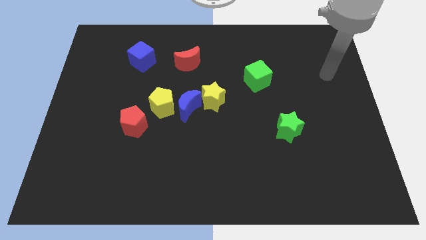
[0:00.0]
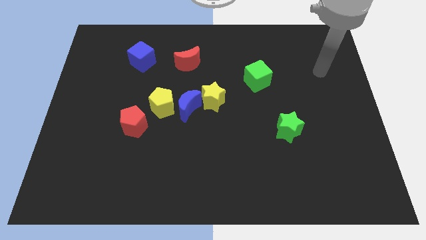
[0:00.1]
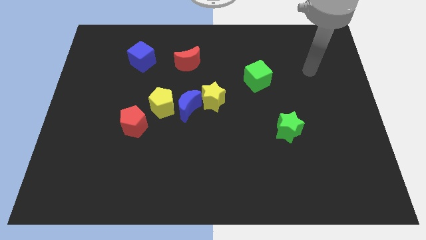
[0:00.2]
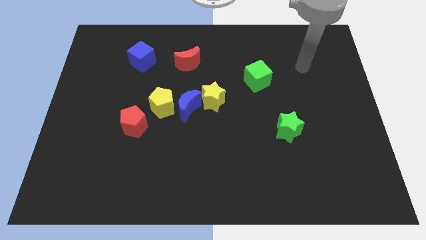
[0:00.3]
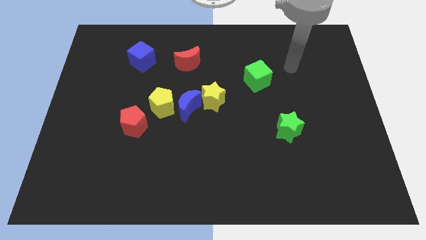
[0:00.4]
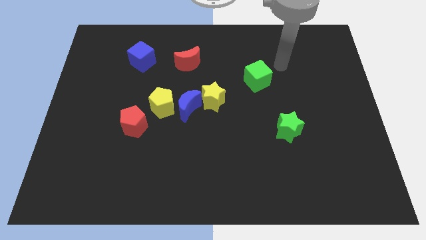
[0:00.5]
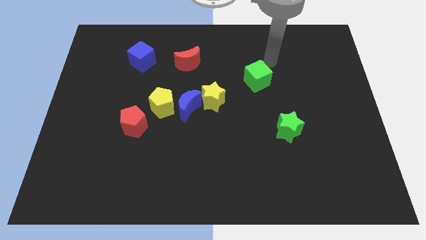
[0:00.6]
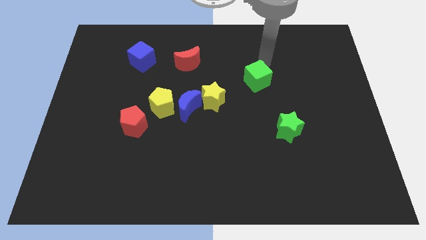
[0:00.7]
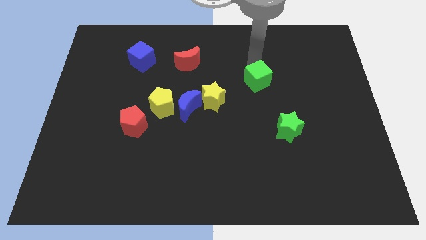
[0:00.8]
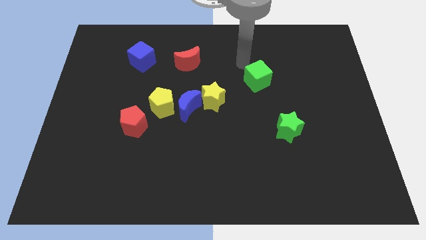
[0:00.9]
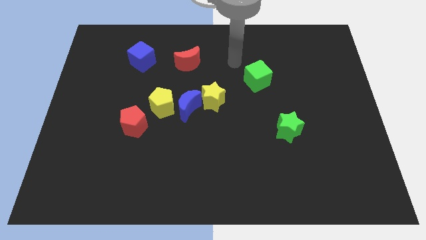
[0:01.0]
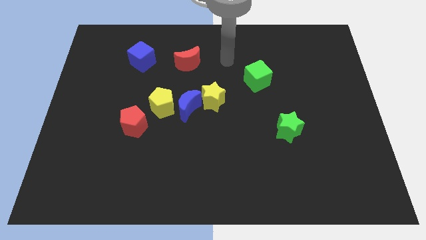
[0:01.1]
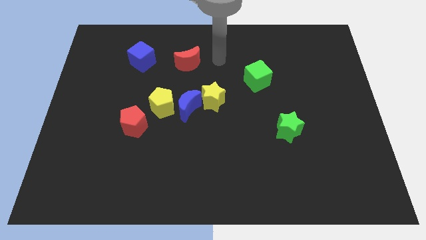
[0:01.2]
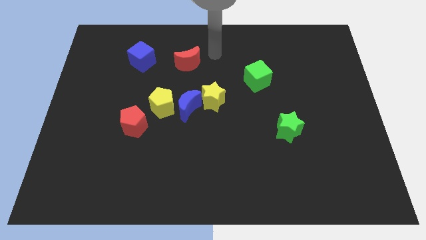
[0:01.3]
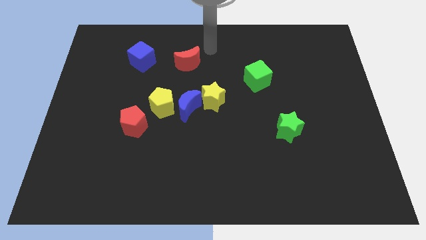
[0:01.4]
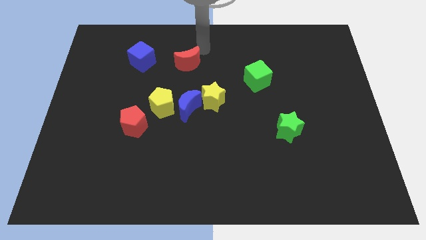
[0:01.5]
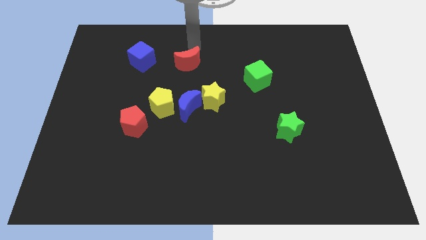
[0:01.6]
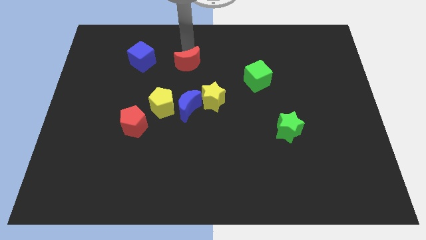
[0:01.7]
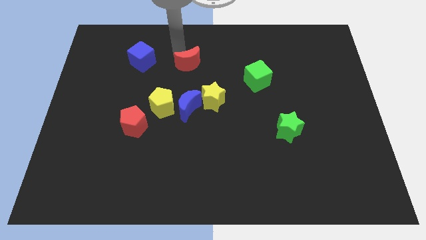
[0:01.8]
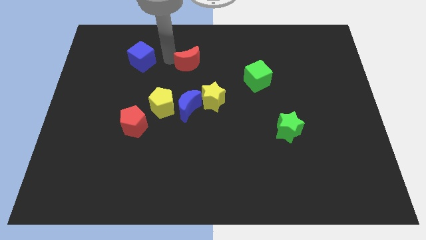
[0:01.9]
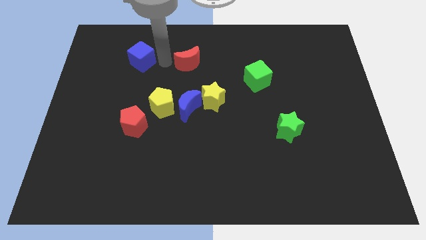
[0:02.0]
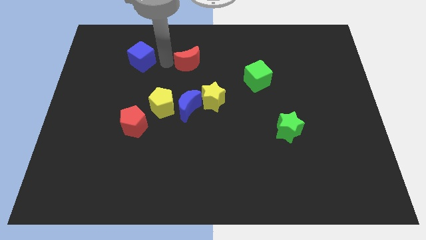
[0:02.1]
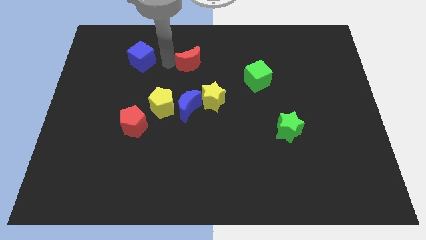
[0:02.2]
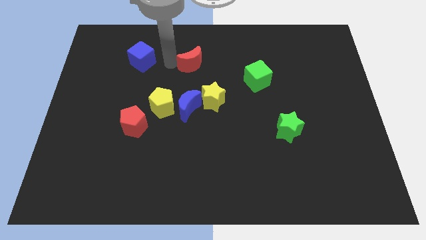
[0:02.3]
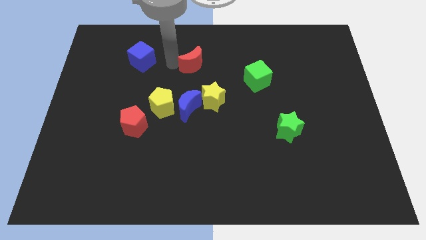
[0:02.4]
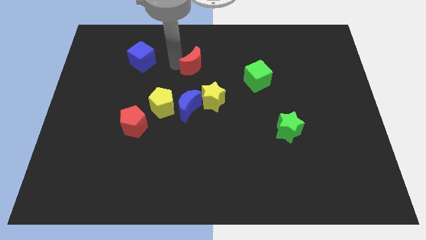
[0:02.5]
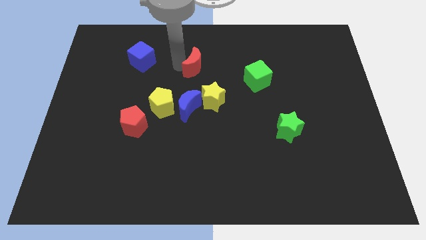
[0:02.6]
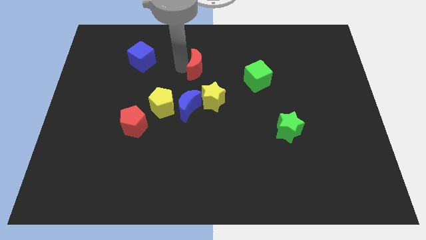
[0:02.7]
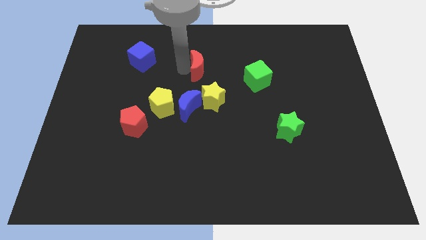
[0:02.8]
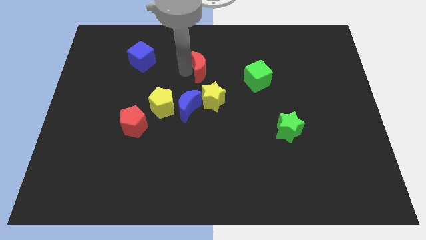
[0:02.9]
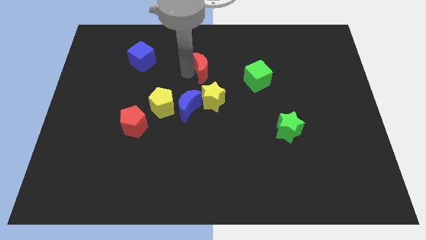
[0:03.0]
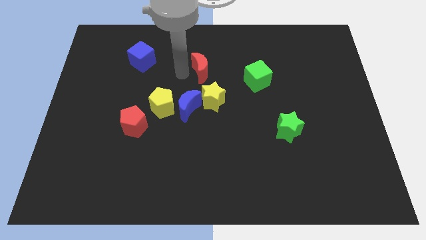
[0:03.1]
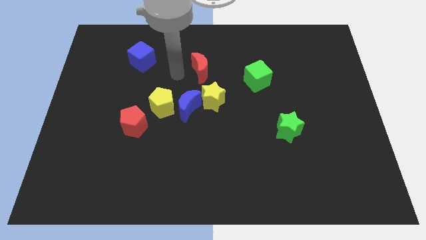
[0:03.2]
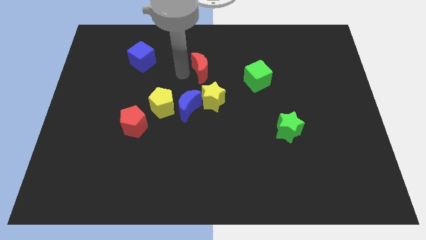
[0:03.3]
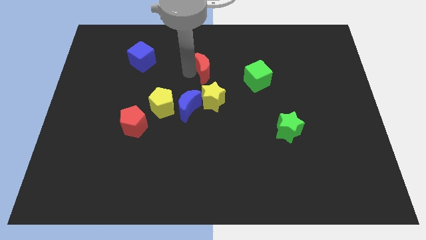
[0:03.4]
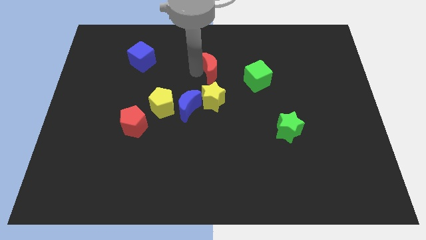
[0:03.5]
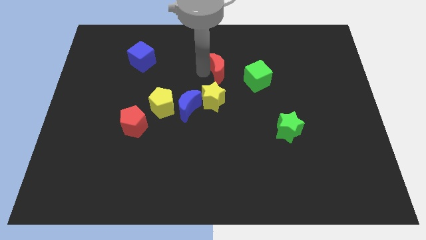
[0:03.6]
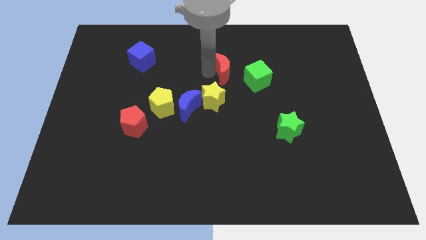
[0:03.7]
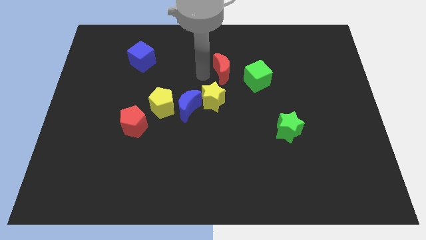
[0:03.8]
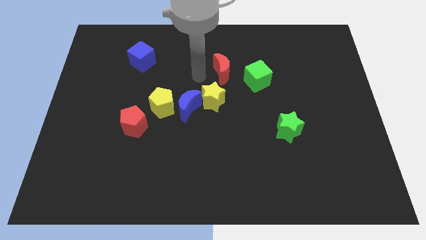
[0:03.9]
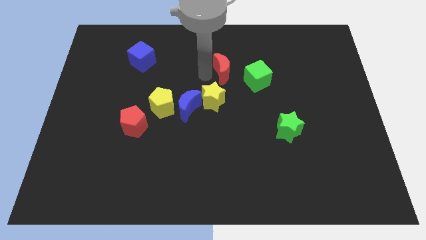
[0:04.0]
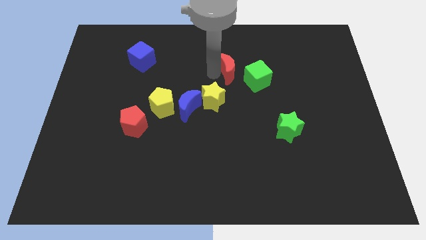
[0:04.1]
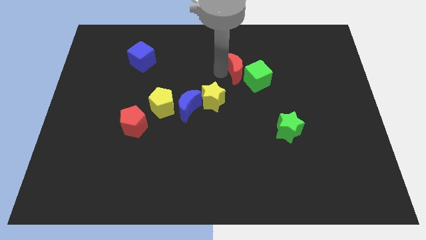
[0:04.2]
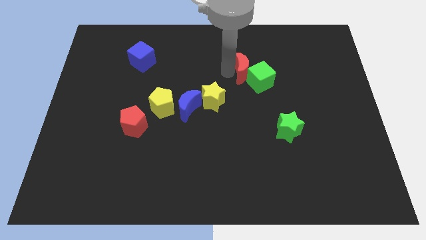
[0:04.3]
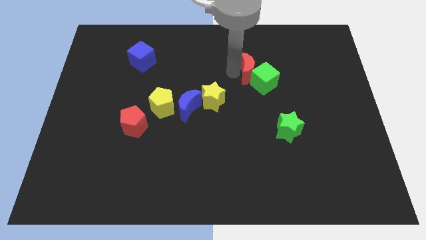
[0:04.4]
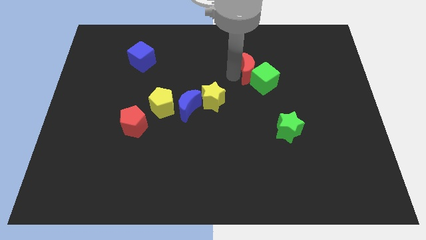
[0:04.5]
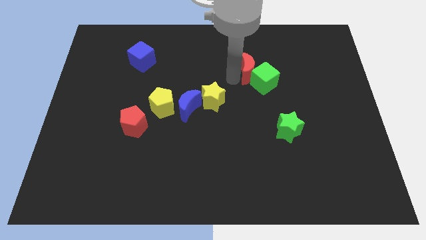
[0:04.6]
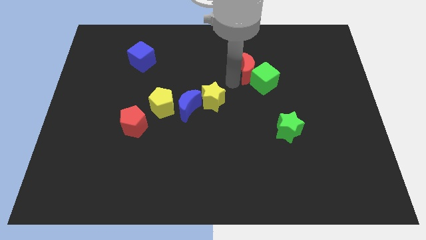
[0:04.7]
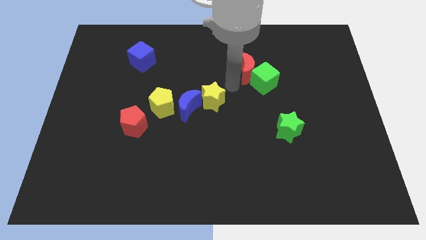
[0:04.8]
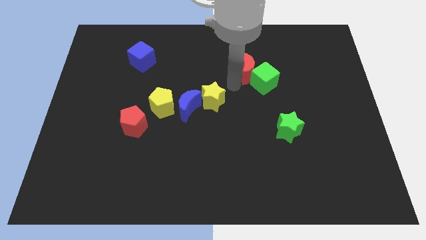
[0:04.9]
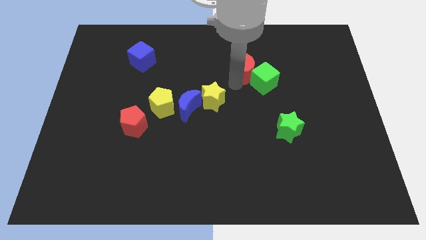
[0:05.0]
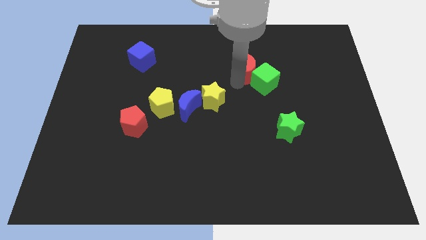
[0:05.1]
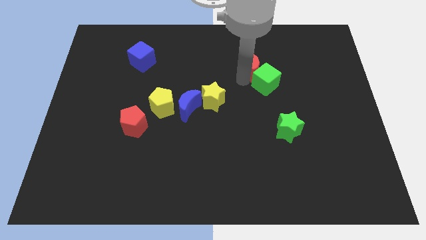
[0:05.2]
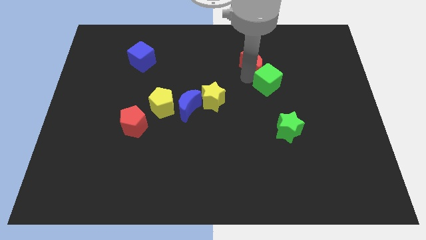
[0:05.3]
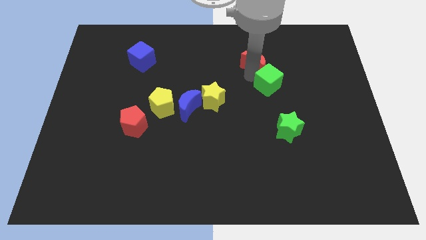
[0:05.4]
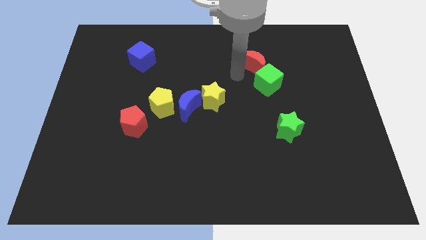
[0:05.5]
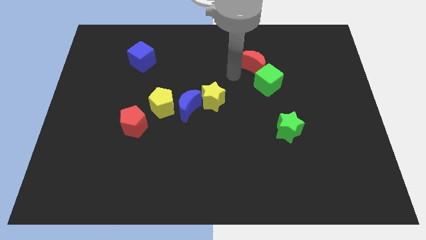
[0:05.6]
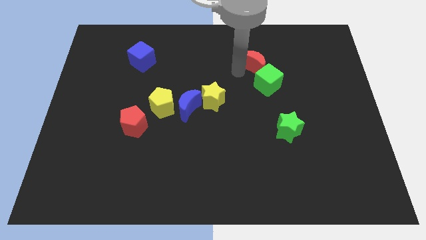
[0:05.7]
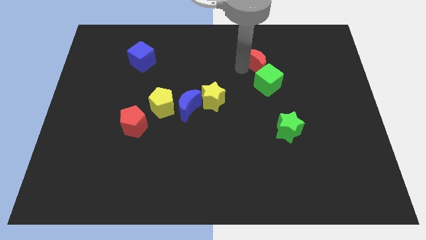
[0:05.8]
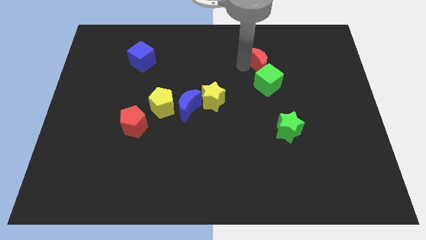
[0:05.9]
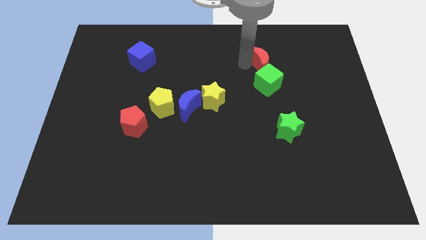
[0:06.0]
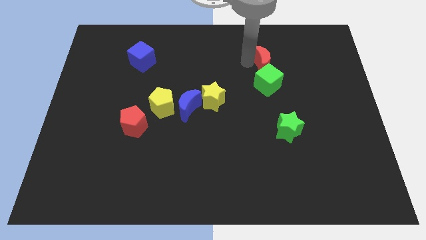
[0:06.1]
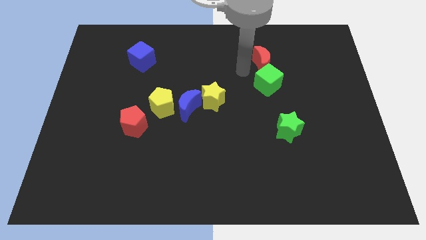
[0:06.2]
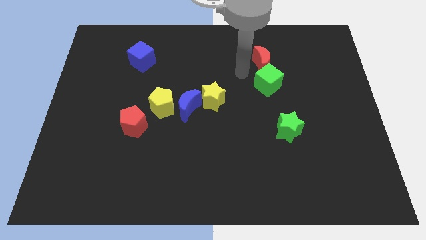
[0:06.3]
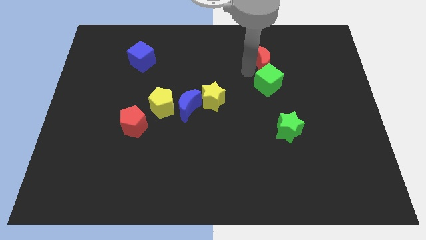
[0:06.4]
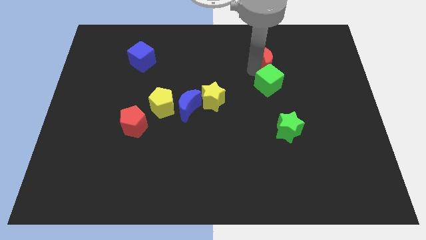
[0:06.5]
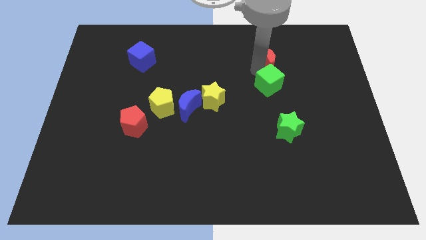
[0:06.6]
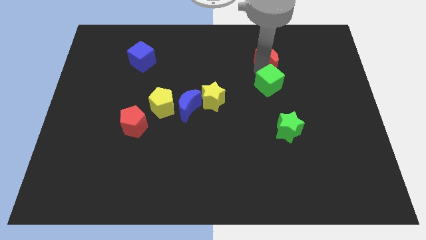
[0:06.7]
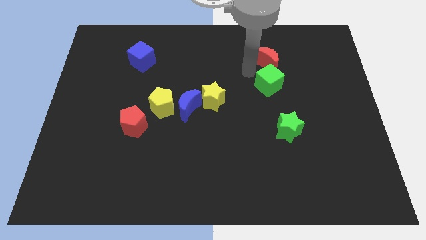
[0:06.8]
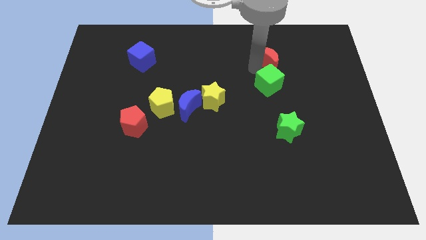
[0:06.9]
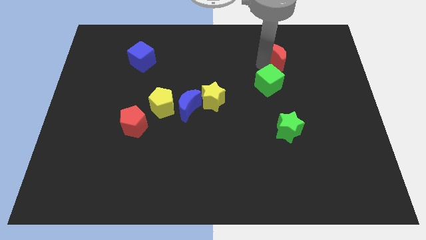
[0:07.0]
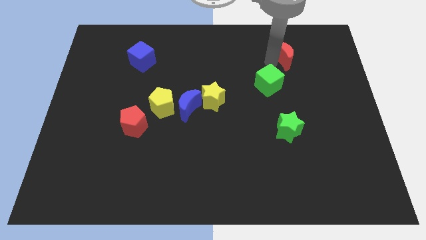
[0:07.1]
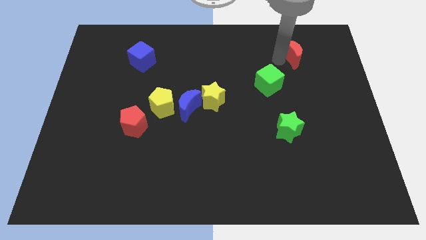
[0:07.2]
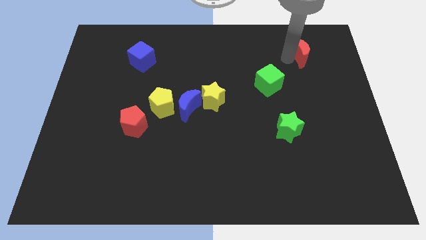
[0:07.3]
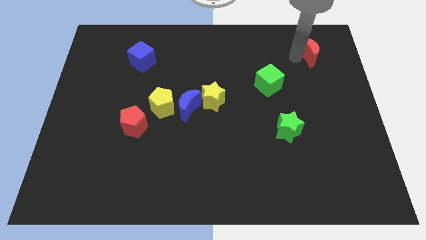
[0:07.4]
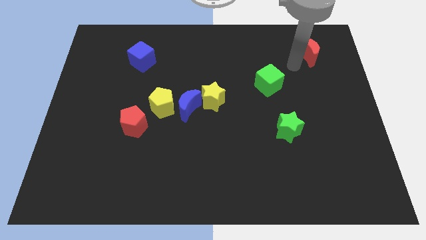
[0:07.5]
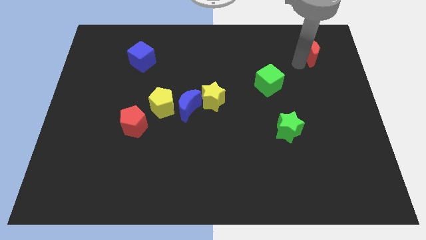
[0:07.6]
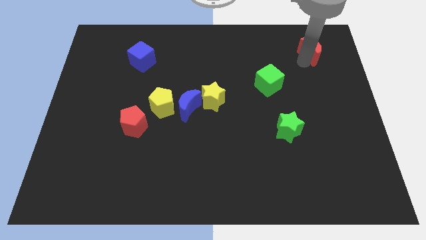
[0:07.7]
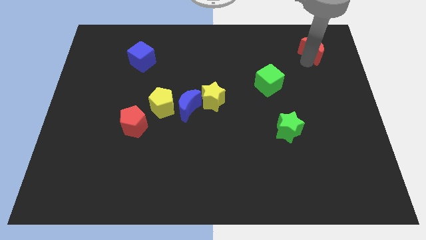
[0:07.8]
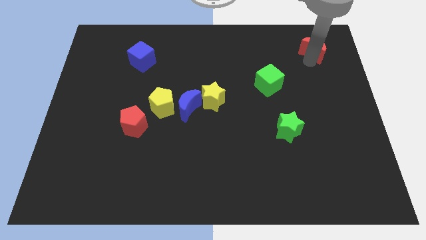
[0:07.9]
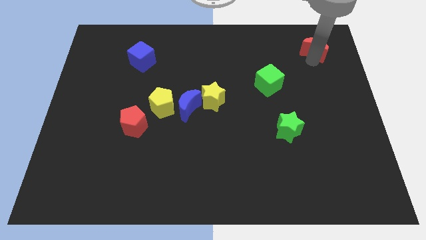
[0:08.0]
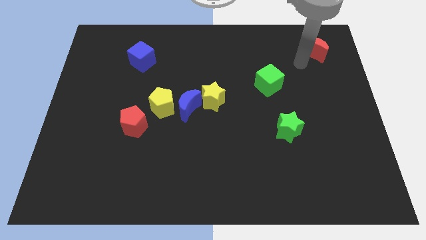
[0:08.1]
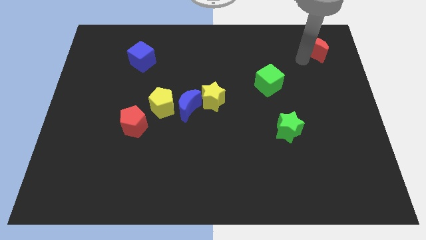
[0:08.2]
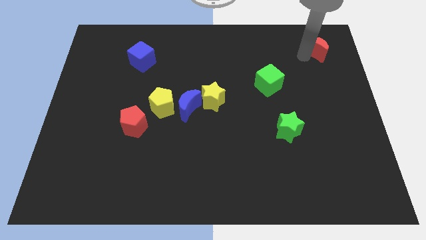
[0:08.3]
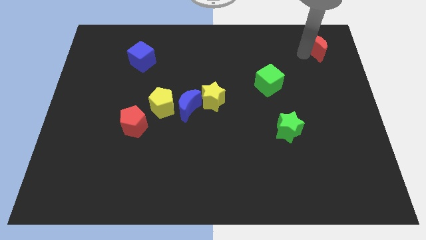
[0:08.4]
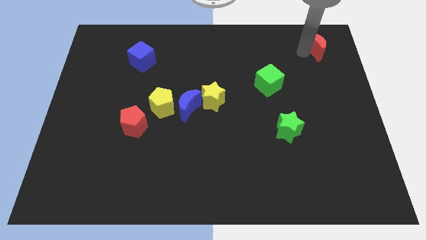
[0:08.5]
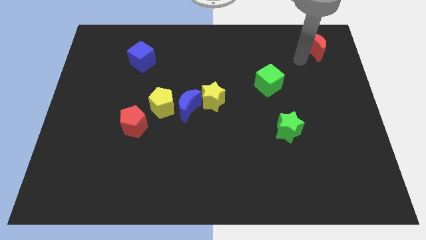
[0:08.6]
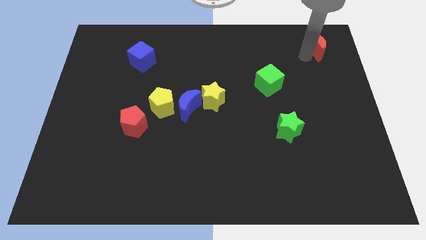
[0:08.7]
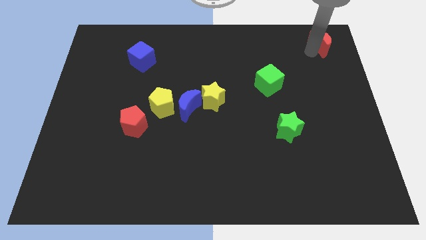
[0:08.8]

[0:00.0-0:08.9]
put the red moon to the top right corner
